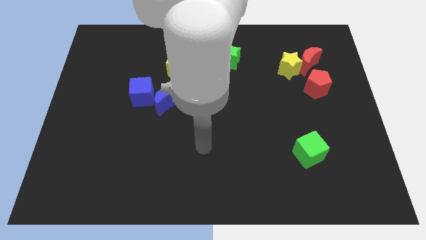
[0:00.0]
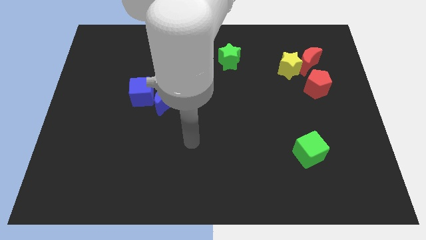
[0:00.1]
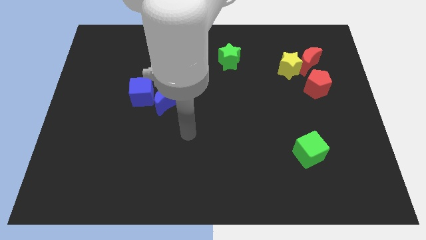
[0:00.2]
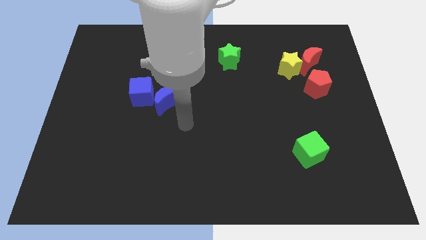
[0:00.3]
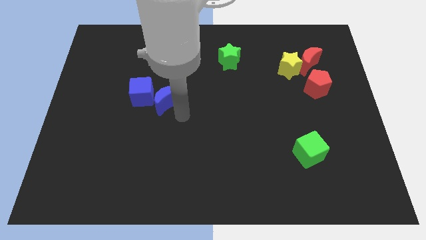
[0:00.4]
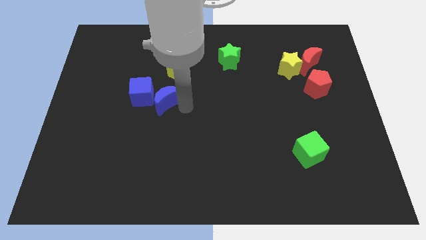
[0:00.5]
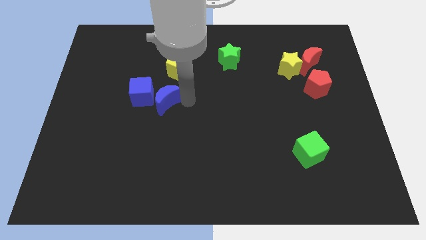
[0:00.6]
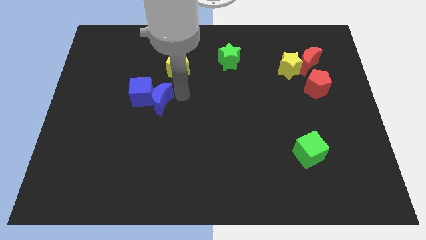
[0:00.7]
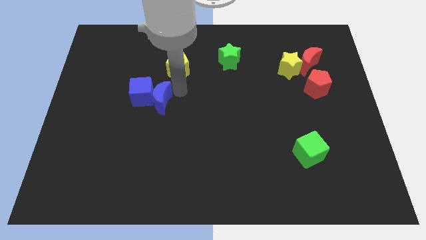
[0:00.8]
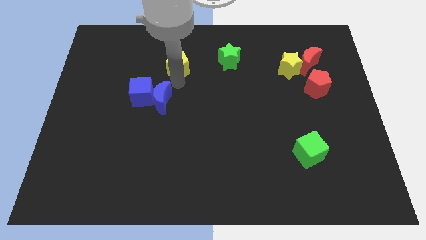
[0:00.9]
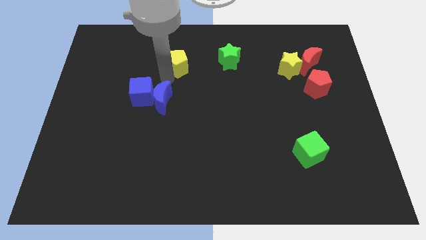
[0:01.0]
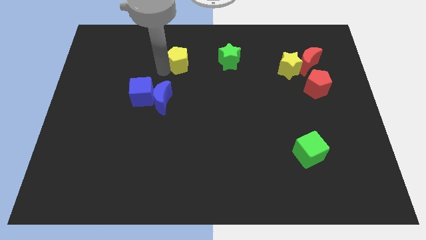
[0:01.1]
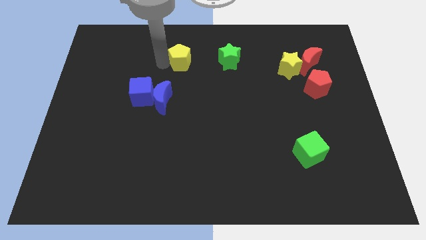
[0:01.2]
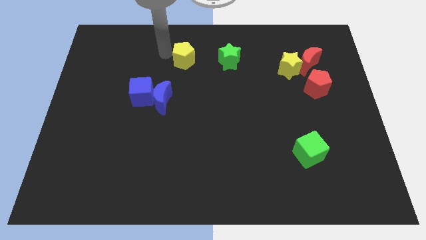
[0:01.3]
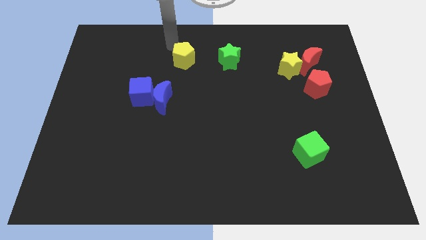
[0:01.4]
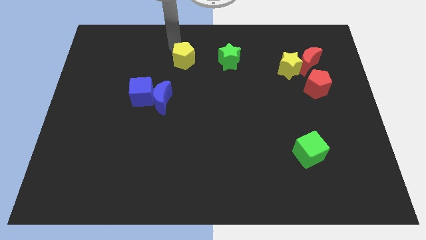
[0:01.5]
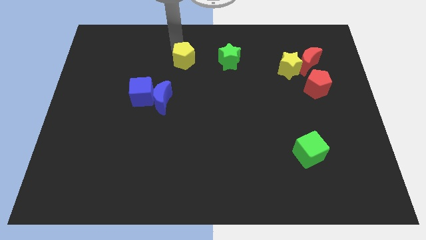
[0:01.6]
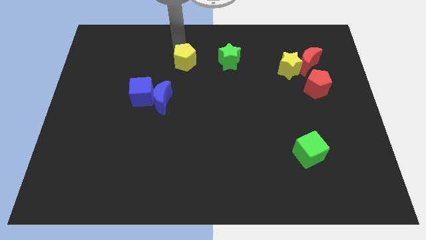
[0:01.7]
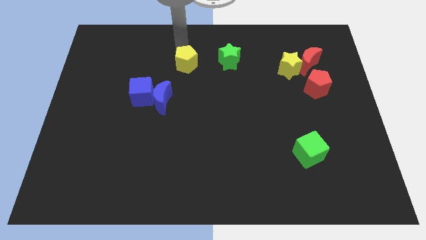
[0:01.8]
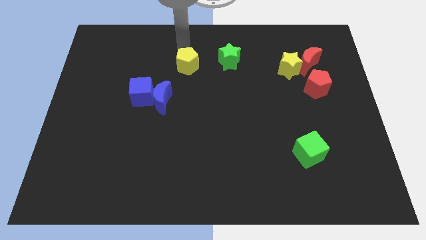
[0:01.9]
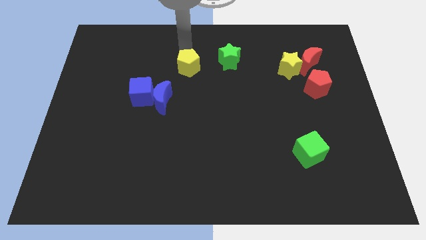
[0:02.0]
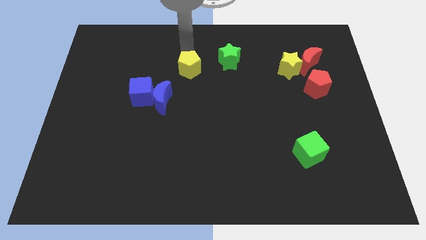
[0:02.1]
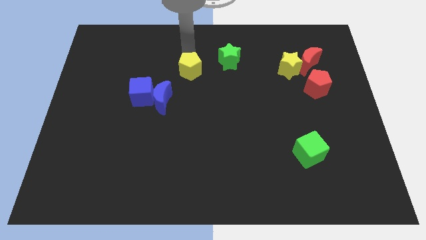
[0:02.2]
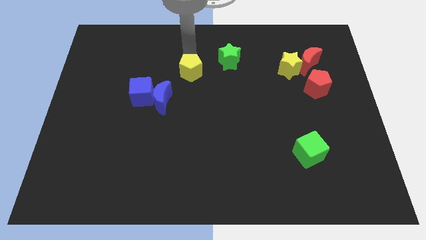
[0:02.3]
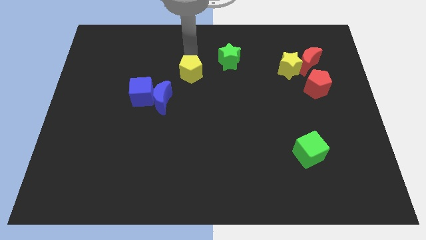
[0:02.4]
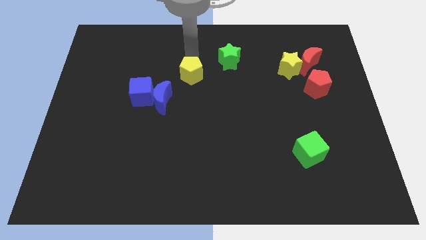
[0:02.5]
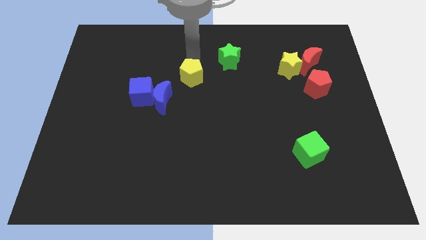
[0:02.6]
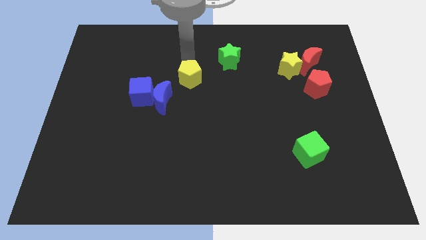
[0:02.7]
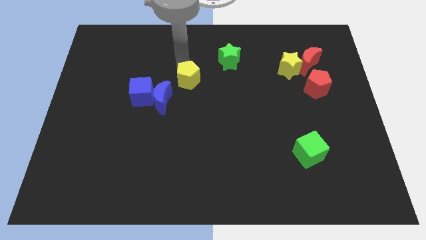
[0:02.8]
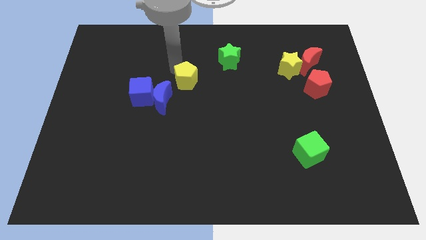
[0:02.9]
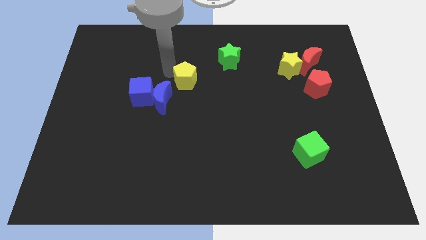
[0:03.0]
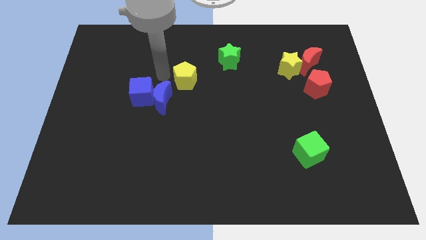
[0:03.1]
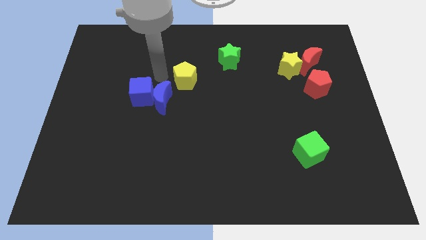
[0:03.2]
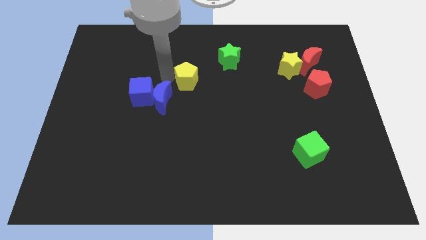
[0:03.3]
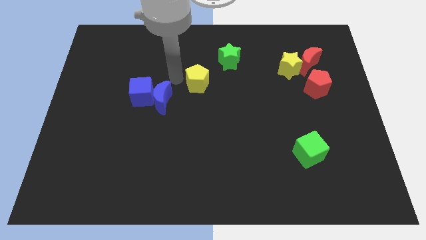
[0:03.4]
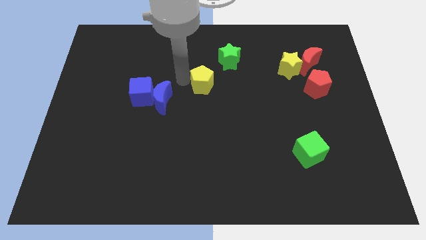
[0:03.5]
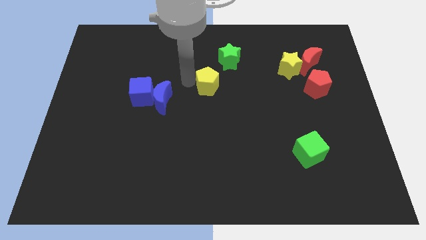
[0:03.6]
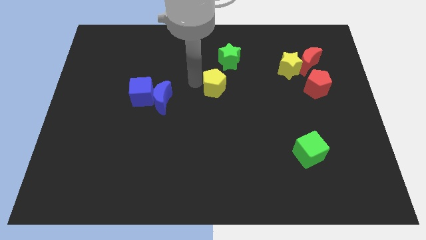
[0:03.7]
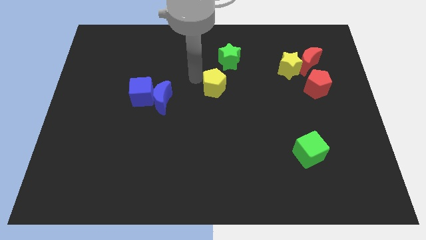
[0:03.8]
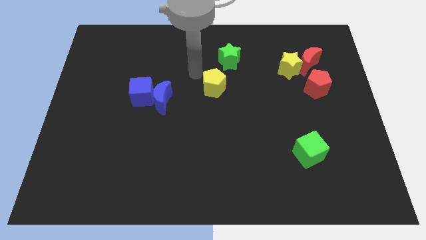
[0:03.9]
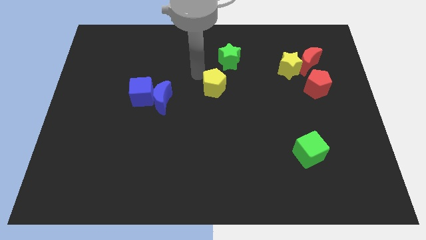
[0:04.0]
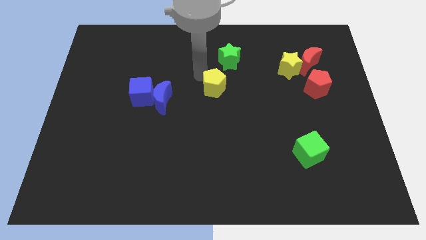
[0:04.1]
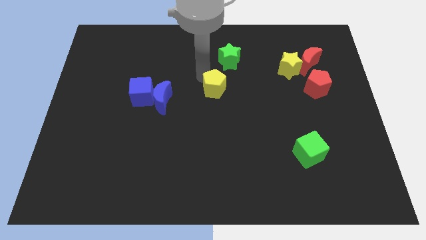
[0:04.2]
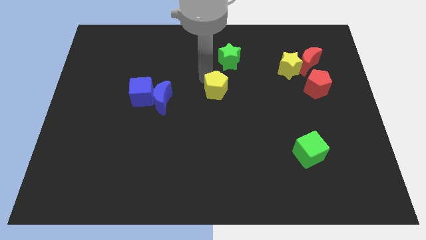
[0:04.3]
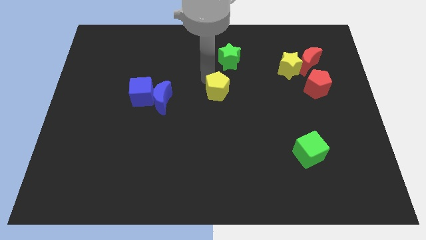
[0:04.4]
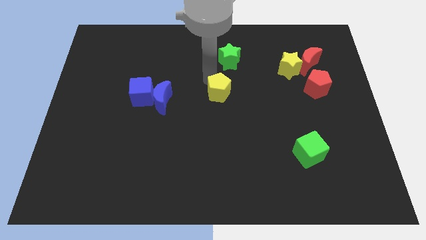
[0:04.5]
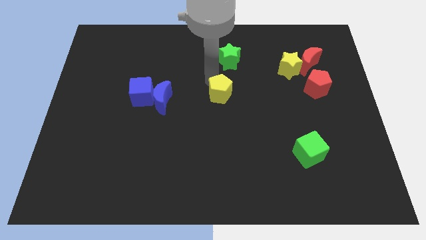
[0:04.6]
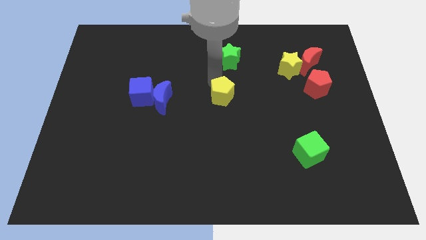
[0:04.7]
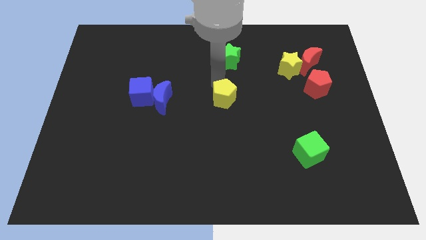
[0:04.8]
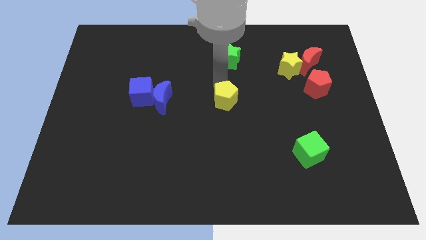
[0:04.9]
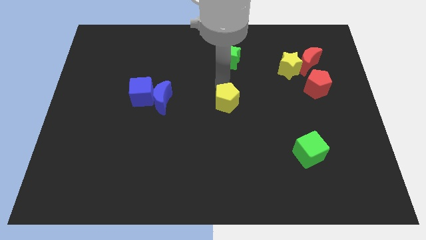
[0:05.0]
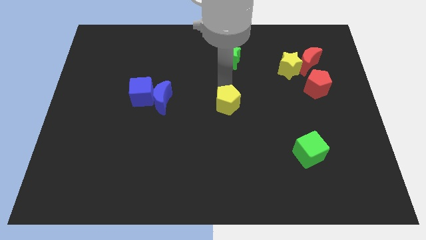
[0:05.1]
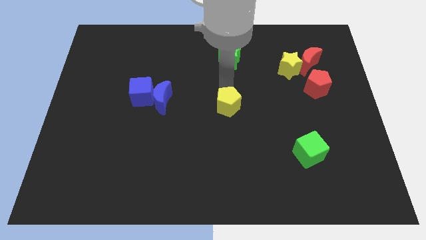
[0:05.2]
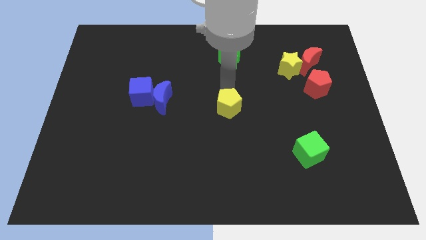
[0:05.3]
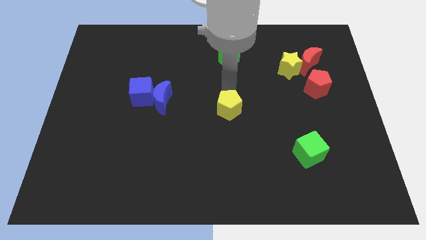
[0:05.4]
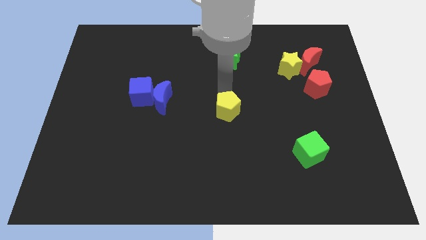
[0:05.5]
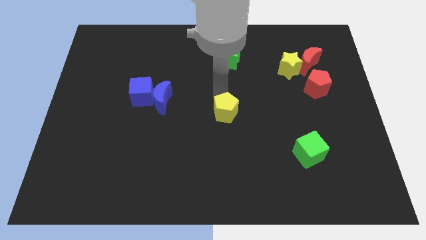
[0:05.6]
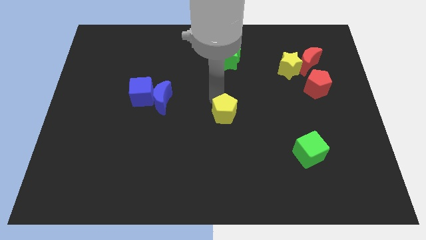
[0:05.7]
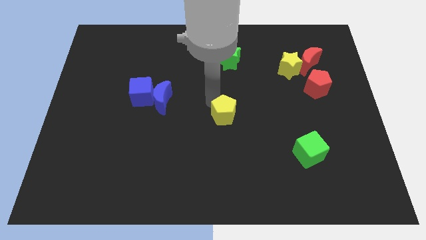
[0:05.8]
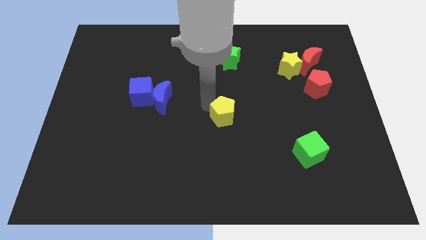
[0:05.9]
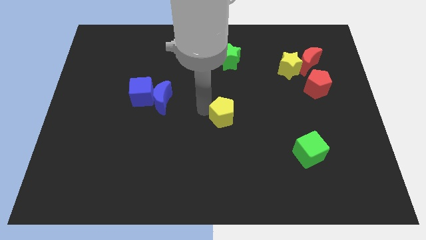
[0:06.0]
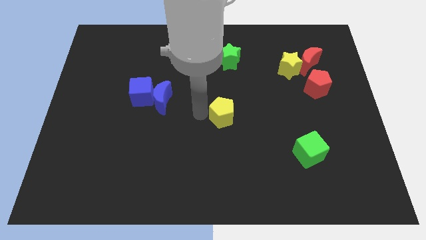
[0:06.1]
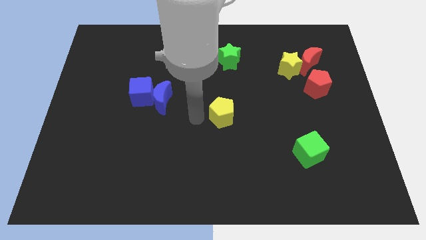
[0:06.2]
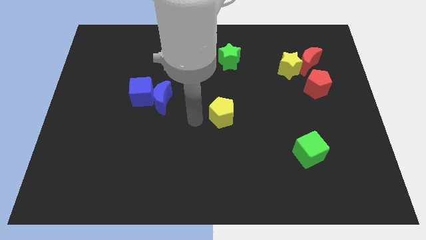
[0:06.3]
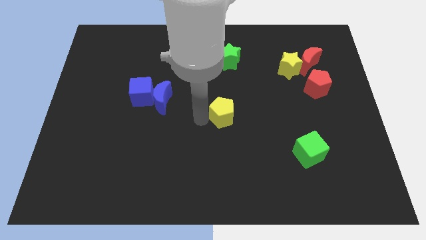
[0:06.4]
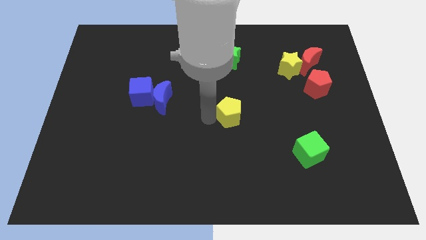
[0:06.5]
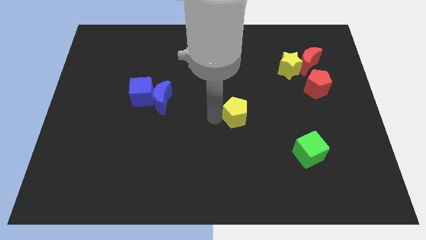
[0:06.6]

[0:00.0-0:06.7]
move the yellow pentagon diagonally down and to the right

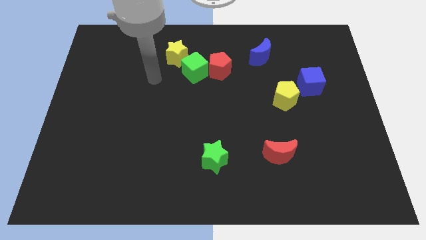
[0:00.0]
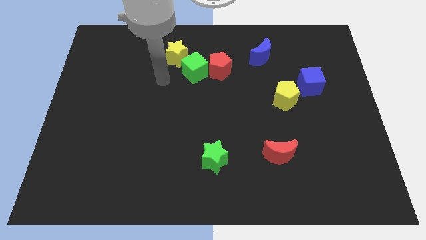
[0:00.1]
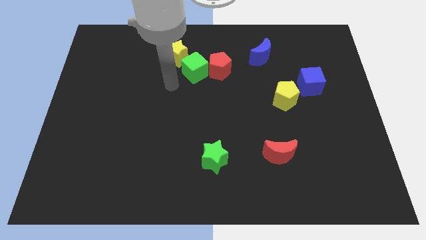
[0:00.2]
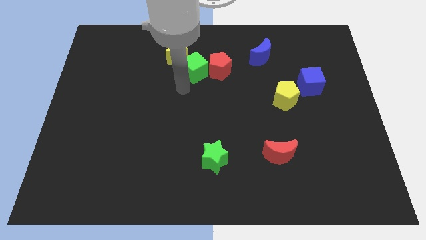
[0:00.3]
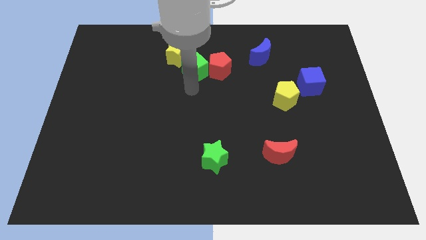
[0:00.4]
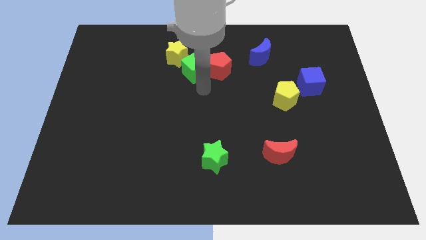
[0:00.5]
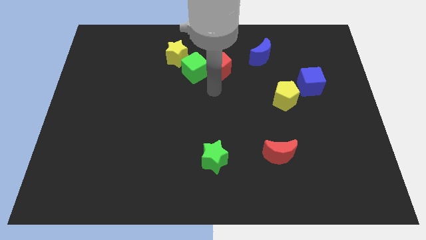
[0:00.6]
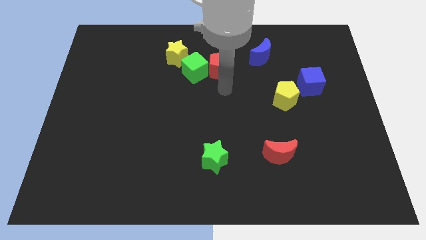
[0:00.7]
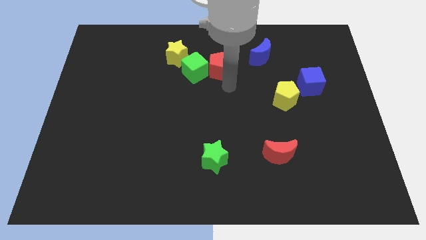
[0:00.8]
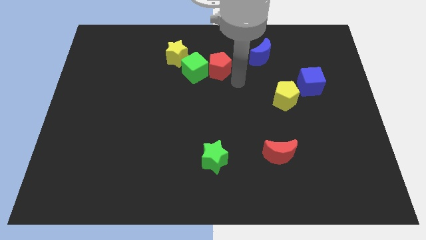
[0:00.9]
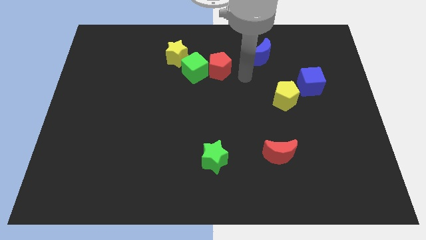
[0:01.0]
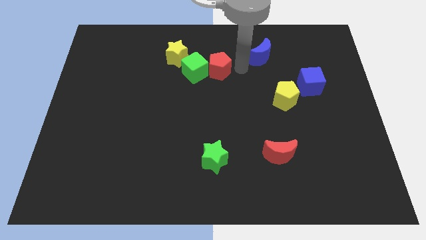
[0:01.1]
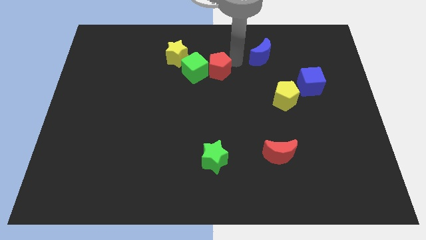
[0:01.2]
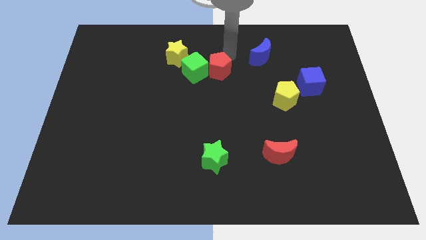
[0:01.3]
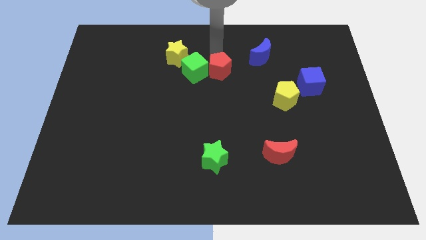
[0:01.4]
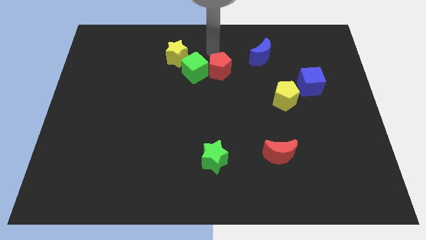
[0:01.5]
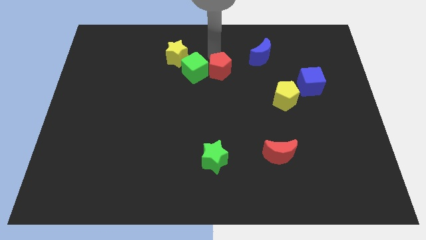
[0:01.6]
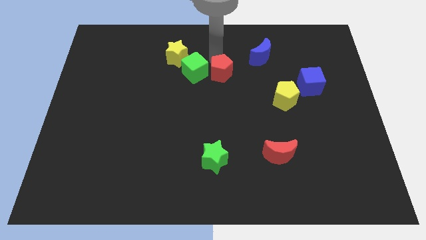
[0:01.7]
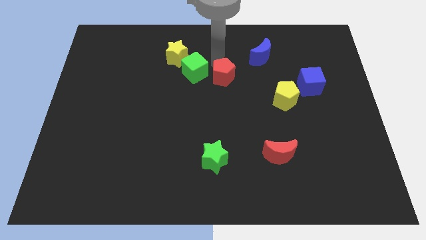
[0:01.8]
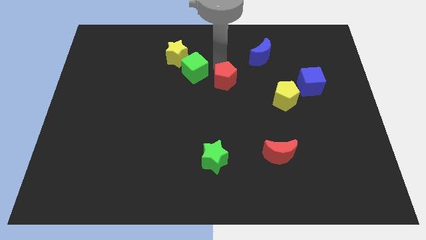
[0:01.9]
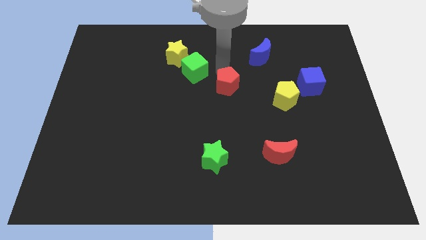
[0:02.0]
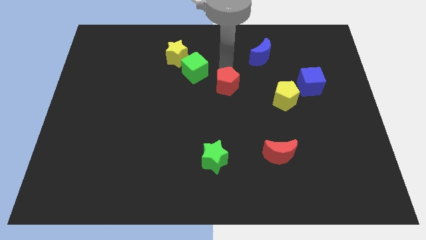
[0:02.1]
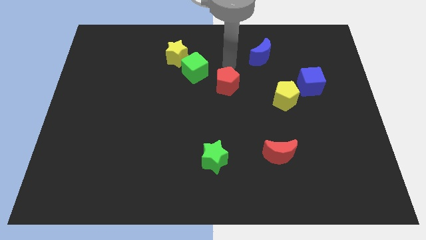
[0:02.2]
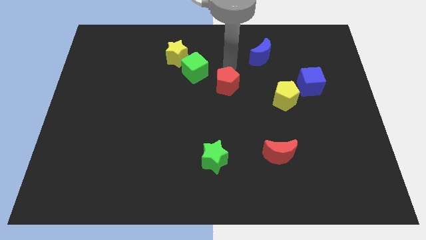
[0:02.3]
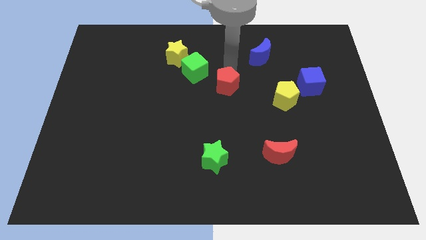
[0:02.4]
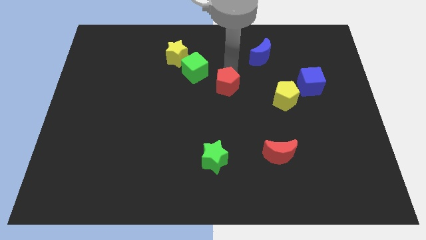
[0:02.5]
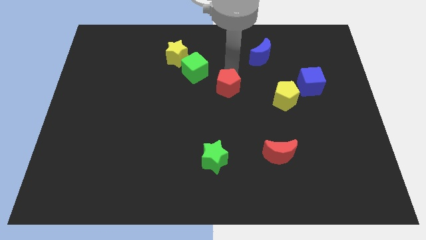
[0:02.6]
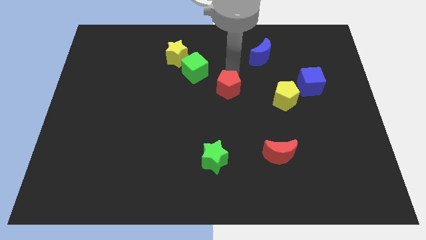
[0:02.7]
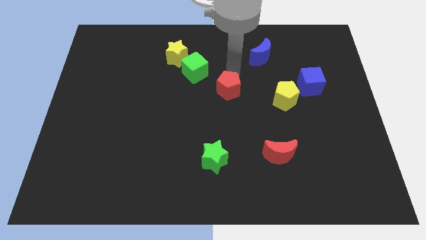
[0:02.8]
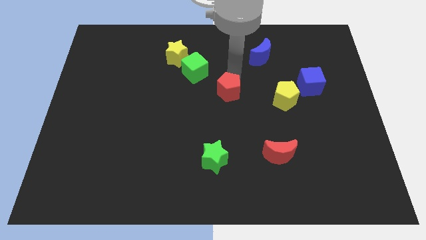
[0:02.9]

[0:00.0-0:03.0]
slightly push the red pentagon down
